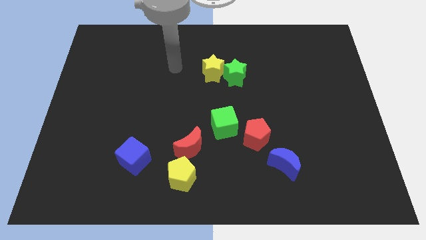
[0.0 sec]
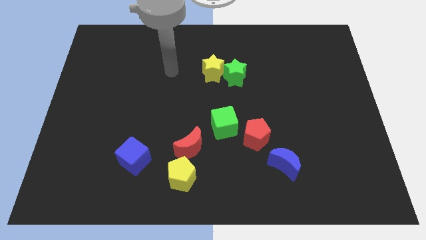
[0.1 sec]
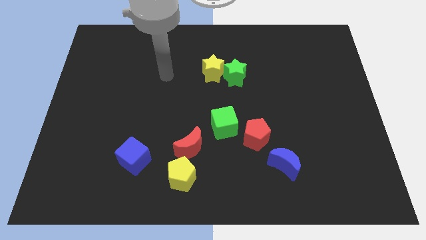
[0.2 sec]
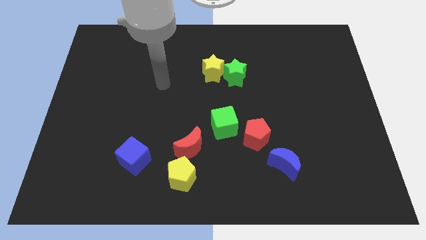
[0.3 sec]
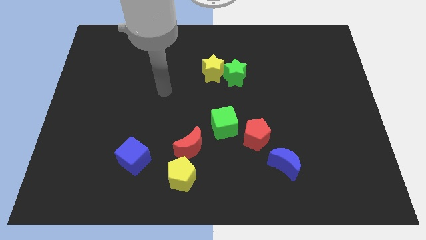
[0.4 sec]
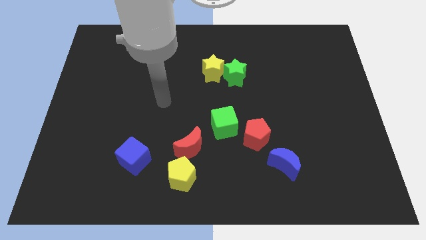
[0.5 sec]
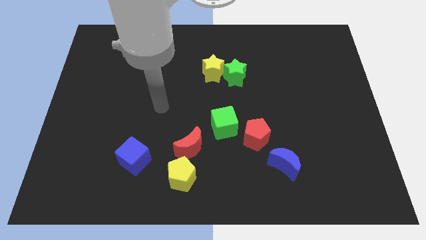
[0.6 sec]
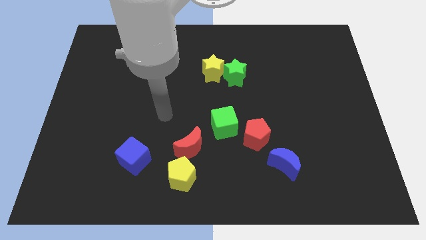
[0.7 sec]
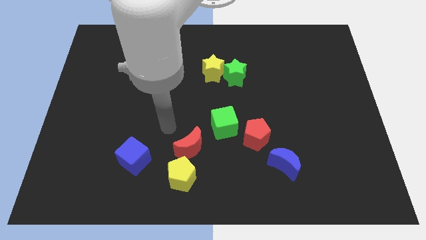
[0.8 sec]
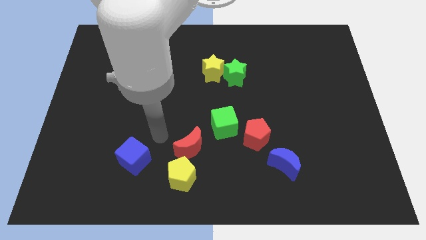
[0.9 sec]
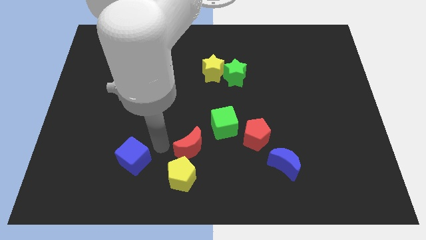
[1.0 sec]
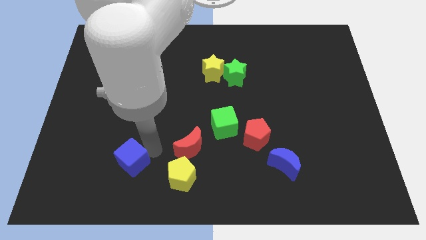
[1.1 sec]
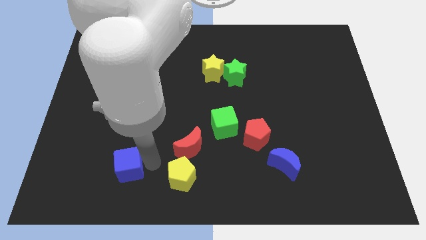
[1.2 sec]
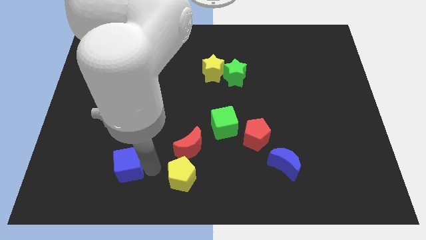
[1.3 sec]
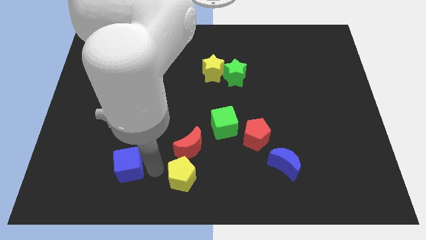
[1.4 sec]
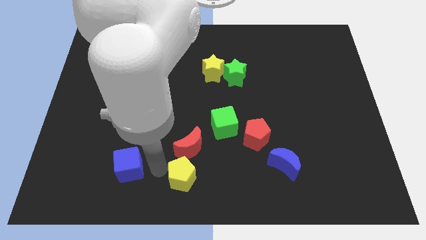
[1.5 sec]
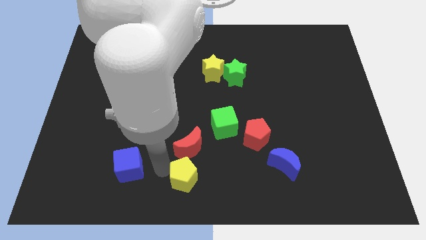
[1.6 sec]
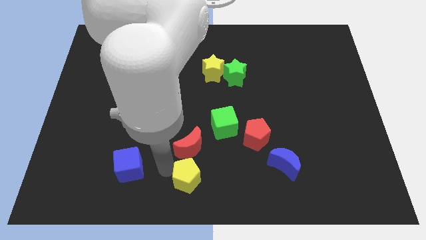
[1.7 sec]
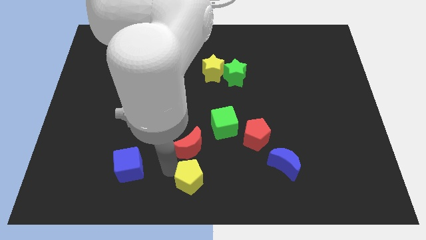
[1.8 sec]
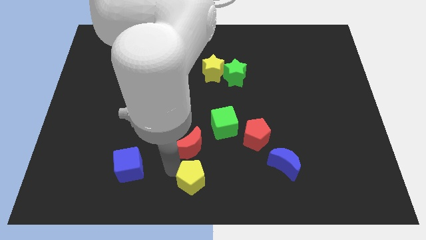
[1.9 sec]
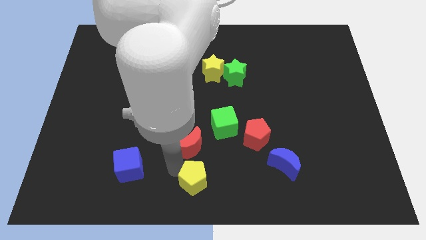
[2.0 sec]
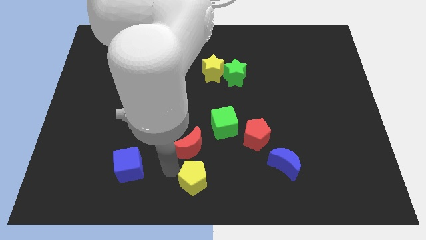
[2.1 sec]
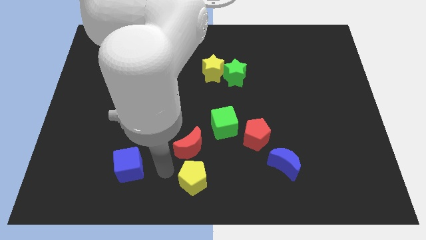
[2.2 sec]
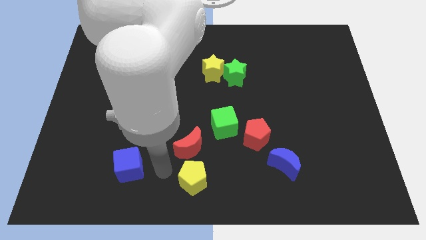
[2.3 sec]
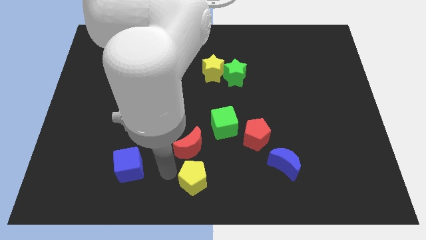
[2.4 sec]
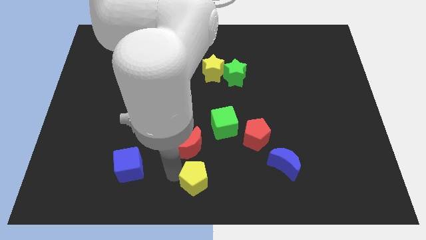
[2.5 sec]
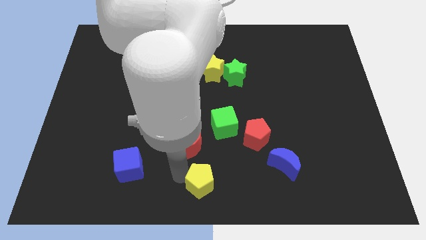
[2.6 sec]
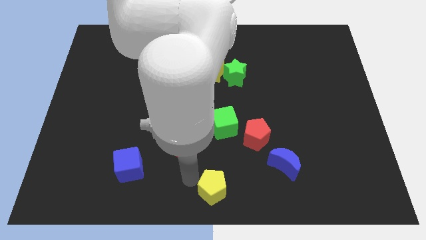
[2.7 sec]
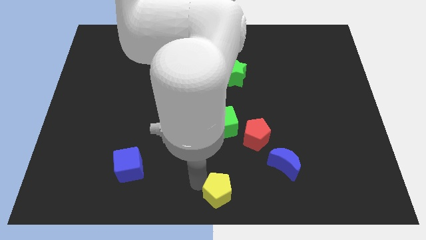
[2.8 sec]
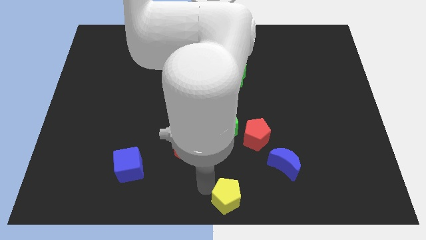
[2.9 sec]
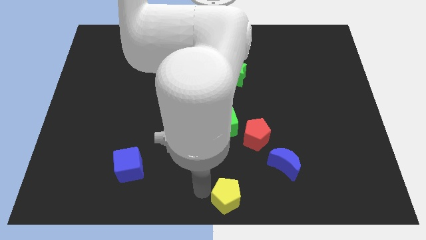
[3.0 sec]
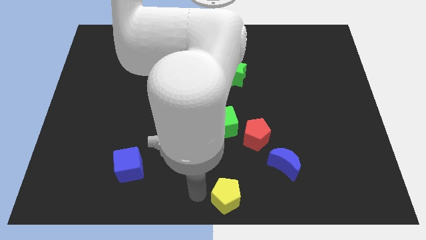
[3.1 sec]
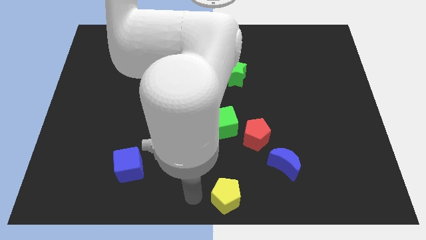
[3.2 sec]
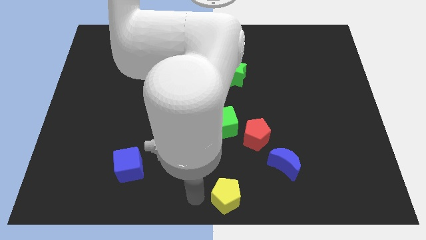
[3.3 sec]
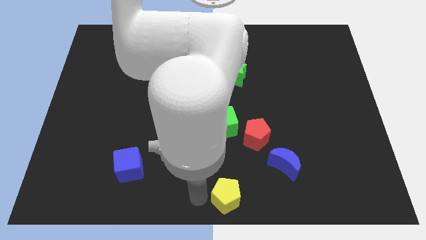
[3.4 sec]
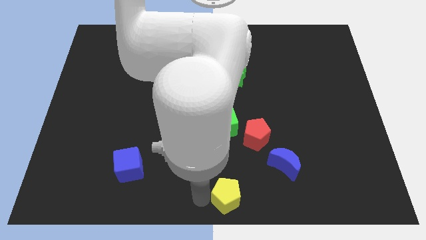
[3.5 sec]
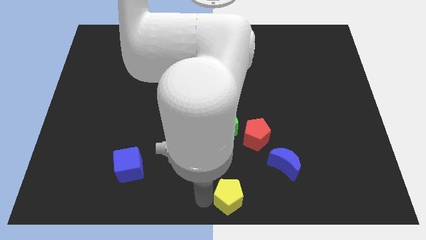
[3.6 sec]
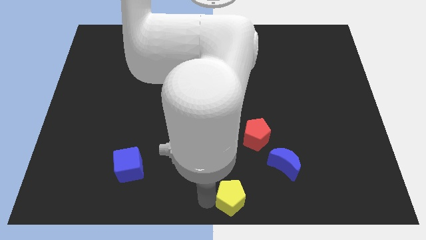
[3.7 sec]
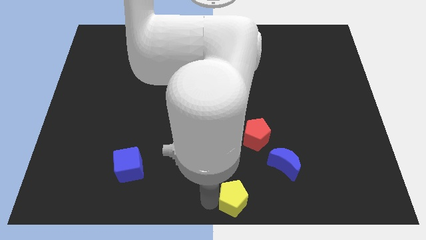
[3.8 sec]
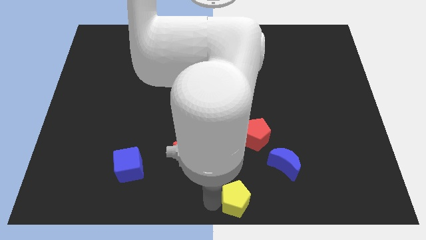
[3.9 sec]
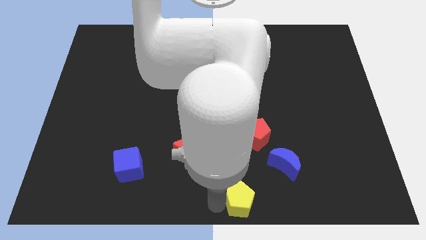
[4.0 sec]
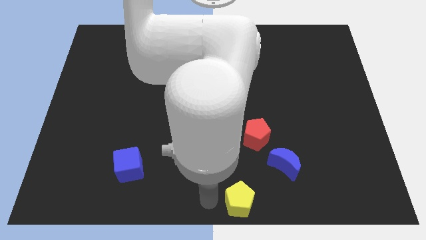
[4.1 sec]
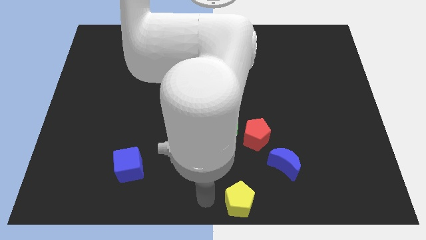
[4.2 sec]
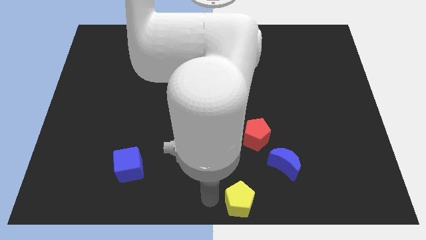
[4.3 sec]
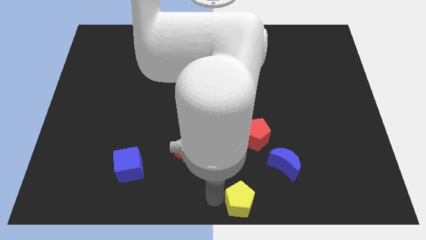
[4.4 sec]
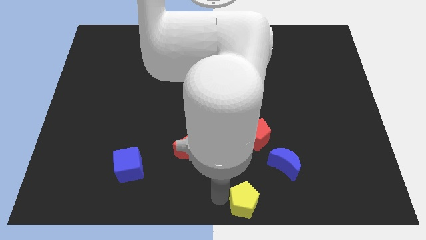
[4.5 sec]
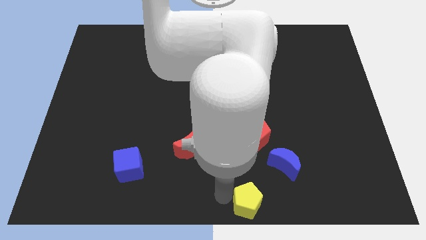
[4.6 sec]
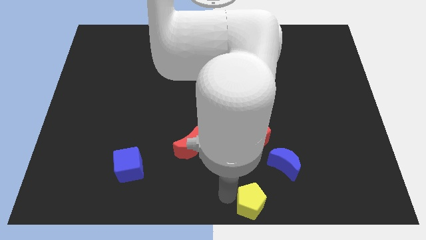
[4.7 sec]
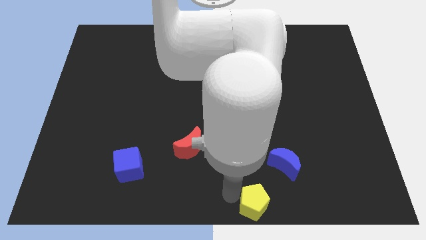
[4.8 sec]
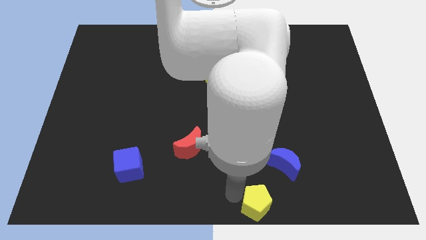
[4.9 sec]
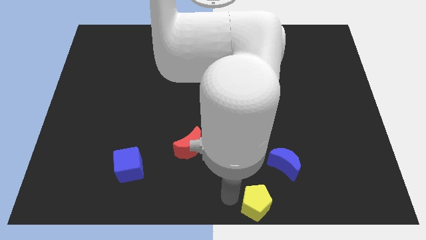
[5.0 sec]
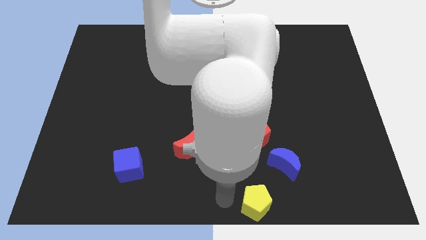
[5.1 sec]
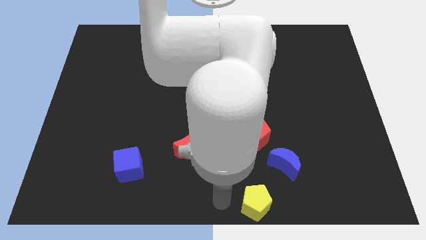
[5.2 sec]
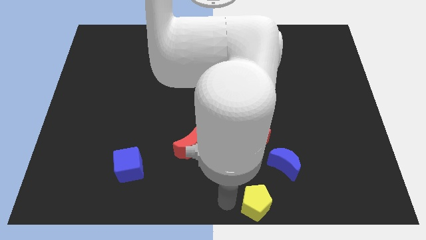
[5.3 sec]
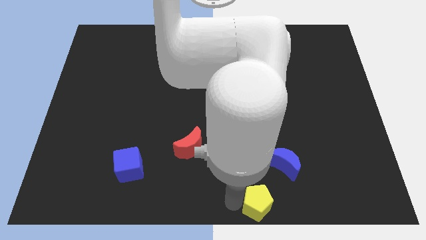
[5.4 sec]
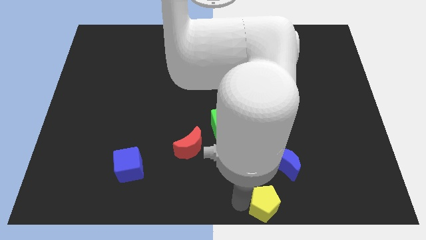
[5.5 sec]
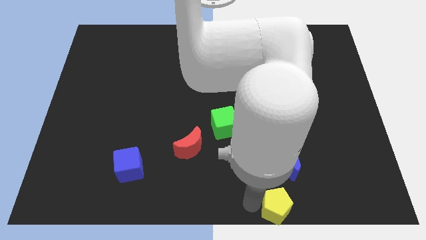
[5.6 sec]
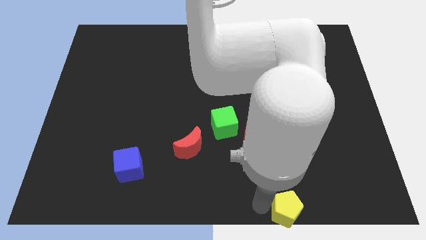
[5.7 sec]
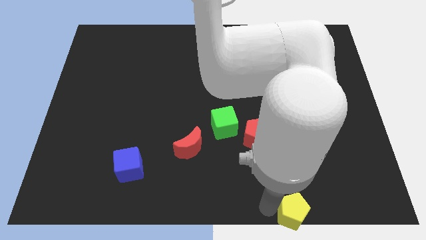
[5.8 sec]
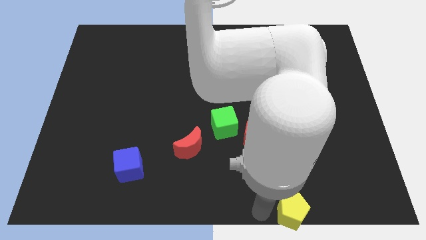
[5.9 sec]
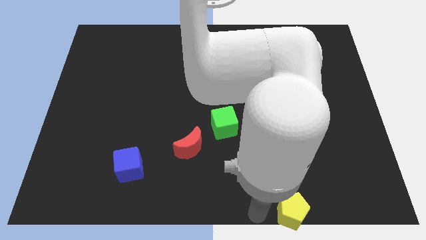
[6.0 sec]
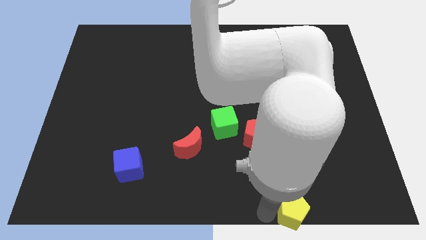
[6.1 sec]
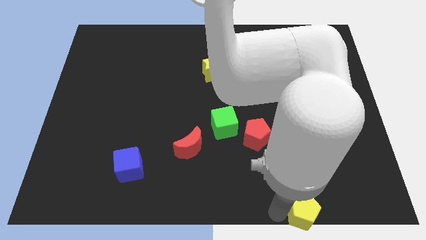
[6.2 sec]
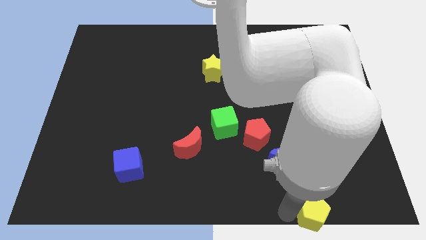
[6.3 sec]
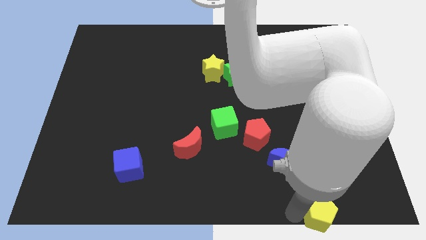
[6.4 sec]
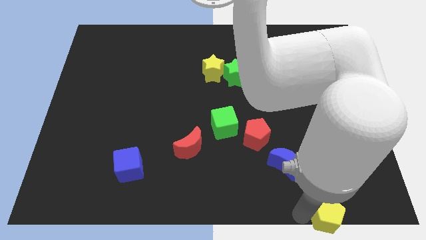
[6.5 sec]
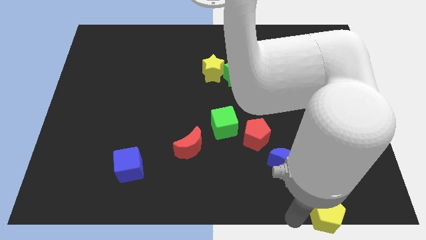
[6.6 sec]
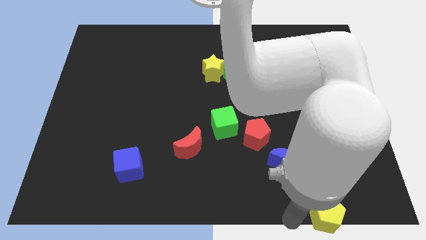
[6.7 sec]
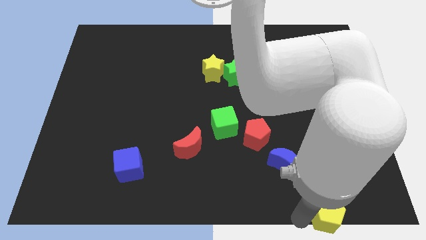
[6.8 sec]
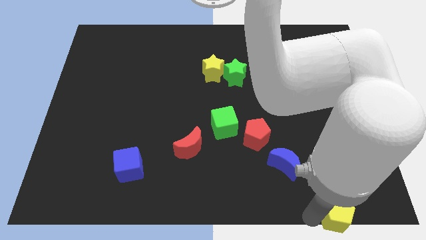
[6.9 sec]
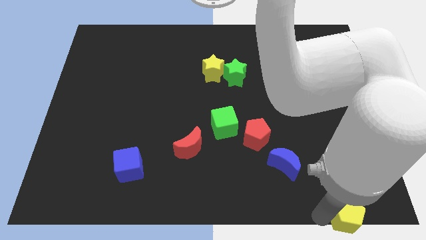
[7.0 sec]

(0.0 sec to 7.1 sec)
push the yellow pentagon to the bottom right
